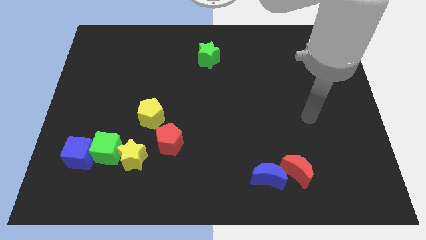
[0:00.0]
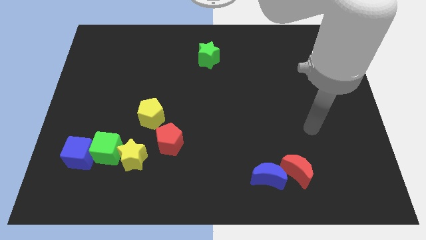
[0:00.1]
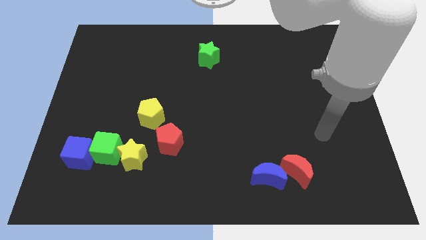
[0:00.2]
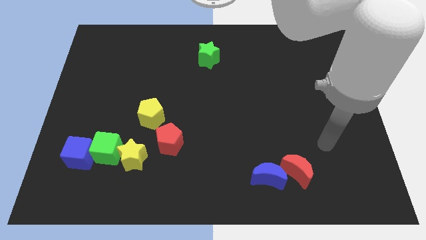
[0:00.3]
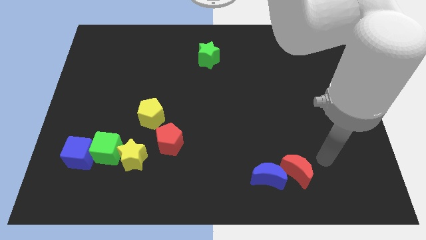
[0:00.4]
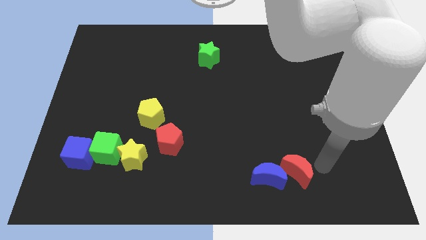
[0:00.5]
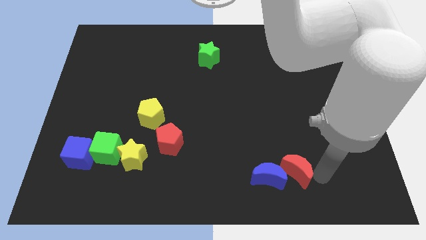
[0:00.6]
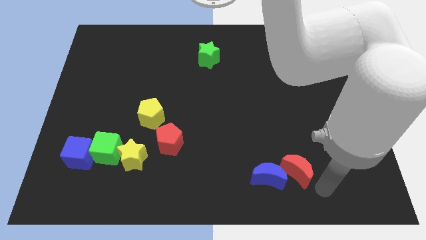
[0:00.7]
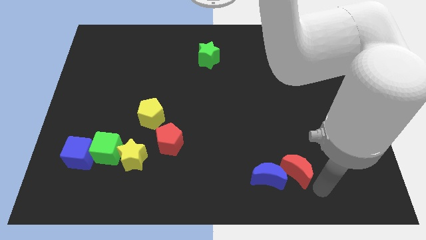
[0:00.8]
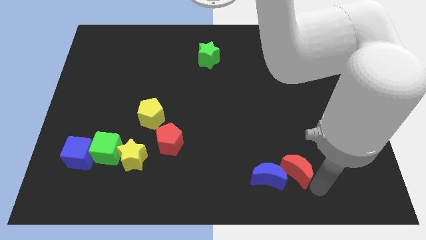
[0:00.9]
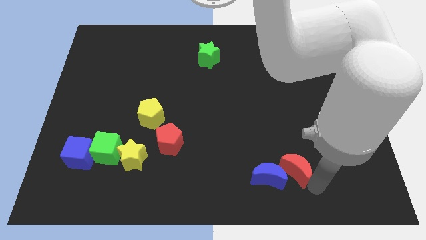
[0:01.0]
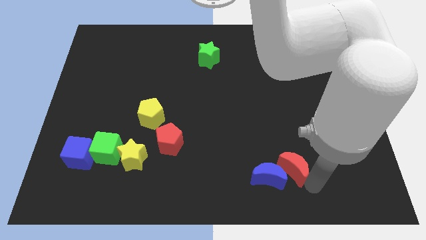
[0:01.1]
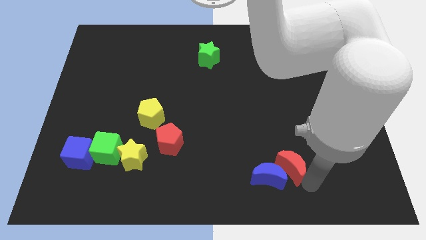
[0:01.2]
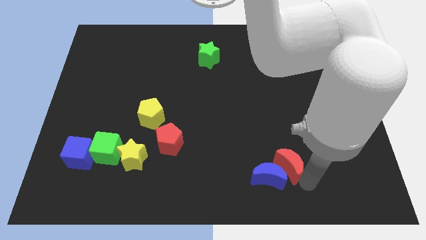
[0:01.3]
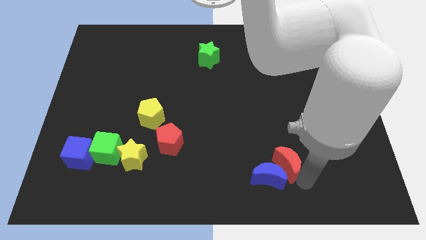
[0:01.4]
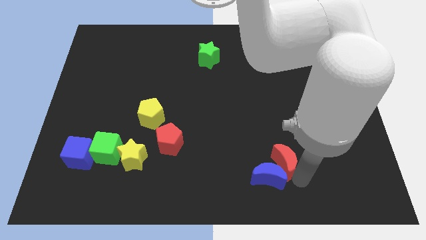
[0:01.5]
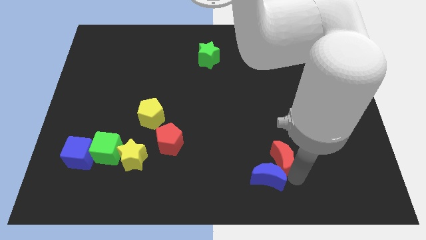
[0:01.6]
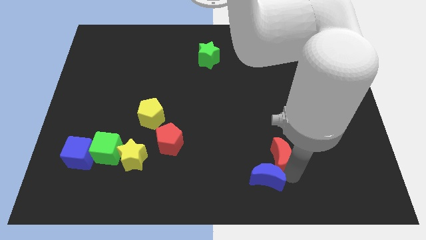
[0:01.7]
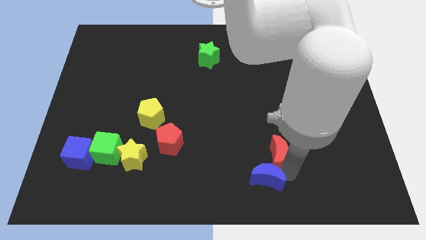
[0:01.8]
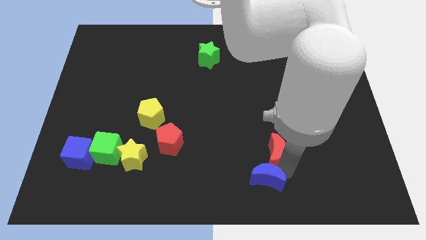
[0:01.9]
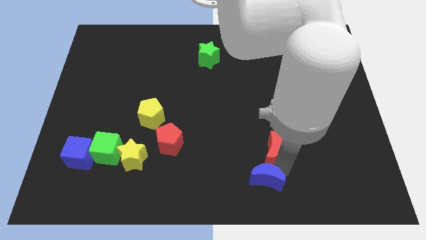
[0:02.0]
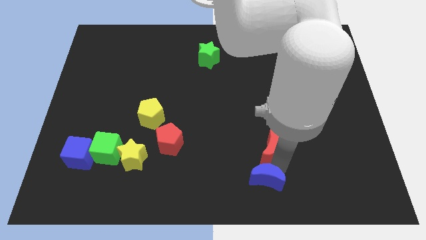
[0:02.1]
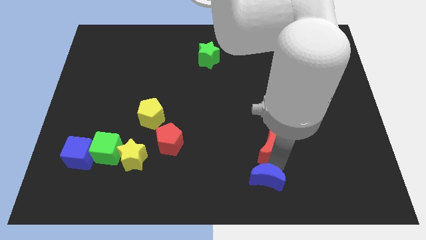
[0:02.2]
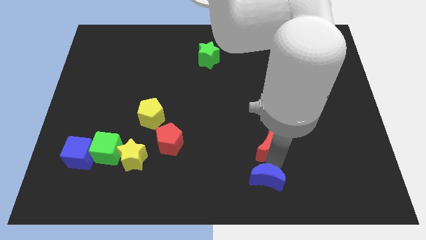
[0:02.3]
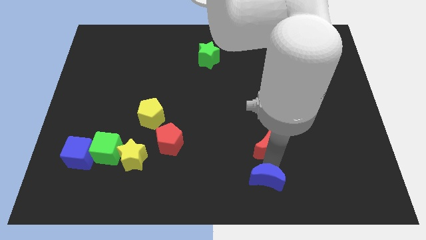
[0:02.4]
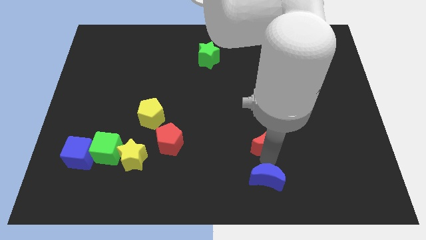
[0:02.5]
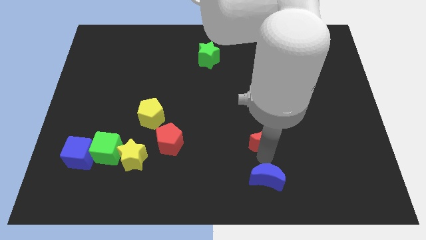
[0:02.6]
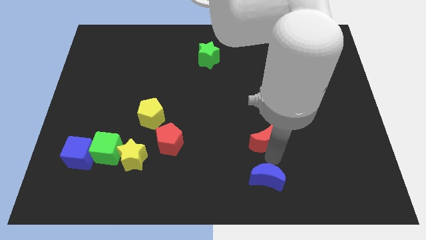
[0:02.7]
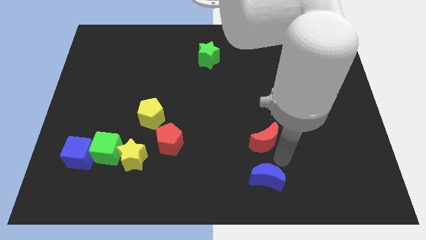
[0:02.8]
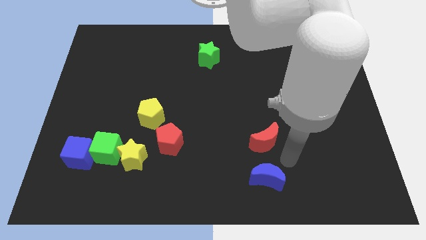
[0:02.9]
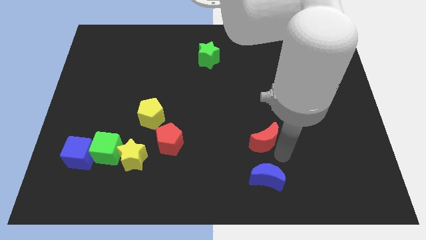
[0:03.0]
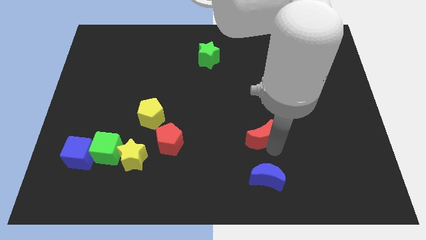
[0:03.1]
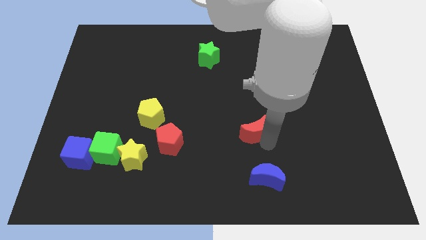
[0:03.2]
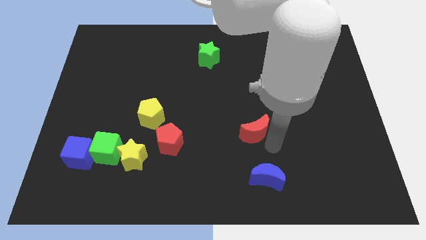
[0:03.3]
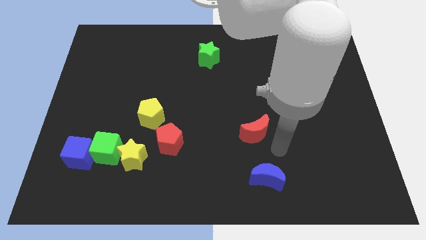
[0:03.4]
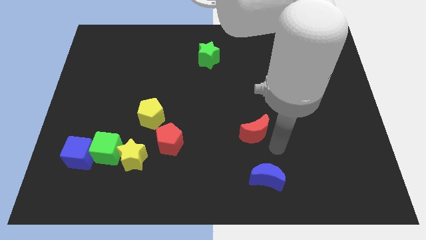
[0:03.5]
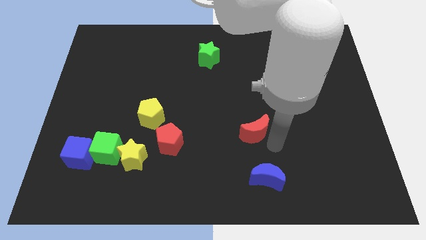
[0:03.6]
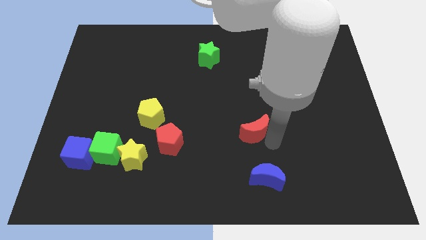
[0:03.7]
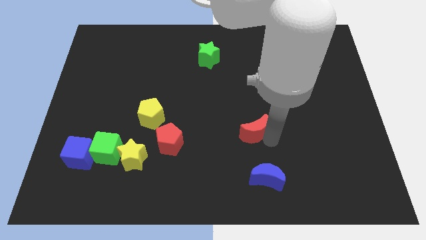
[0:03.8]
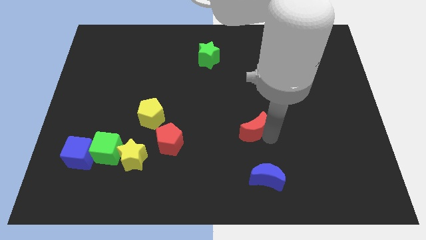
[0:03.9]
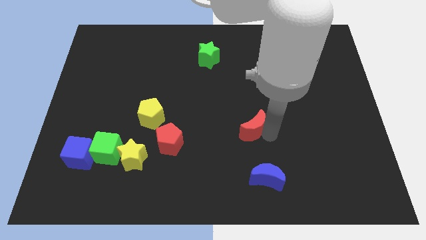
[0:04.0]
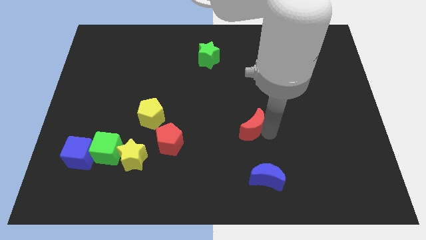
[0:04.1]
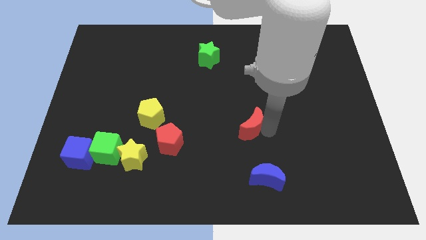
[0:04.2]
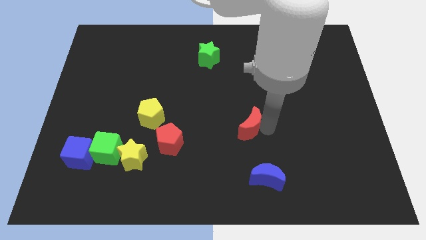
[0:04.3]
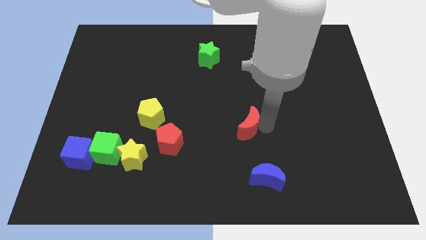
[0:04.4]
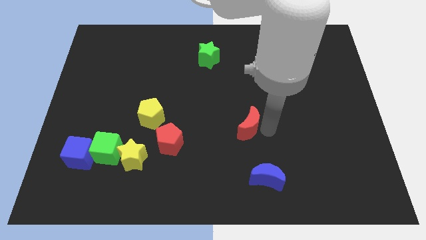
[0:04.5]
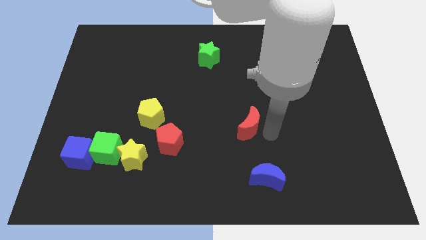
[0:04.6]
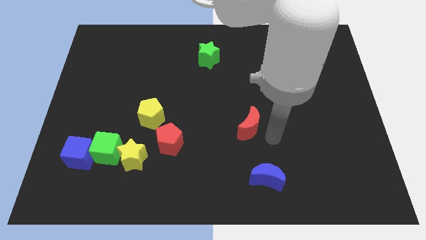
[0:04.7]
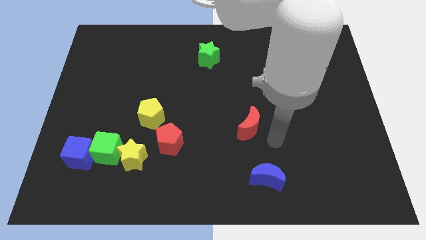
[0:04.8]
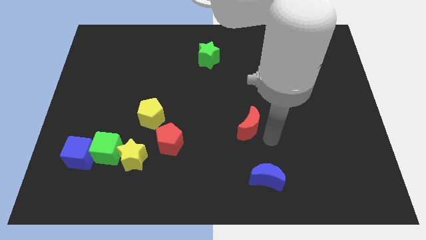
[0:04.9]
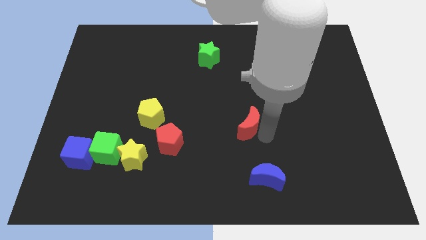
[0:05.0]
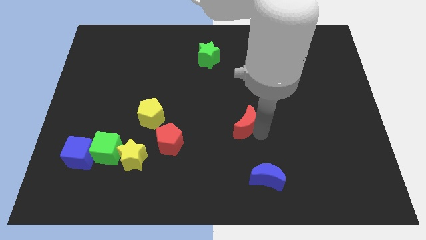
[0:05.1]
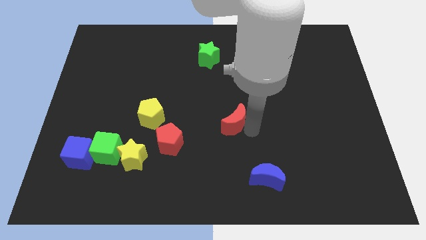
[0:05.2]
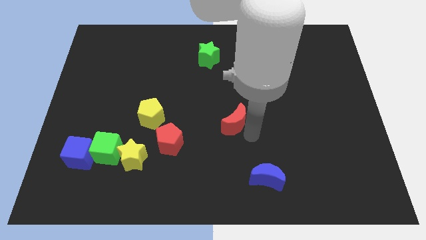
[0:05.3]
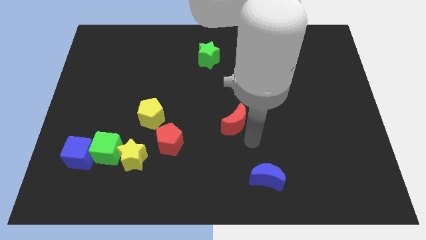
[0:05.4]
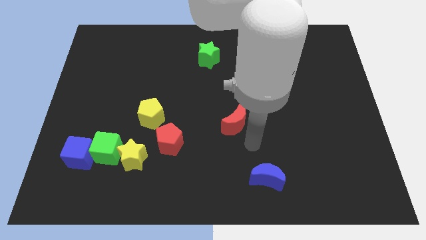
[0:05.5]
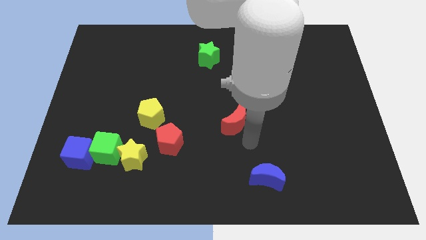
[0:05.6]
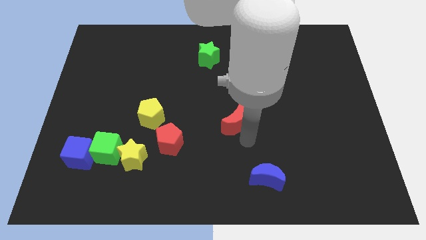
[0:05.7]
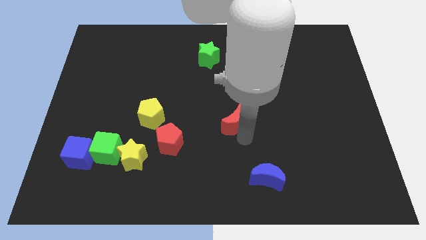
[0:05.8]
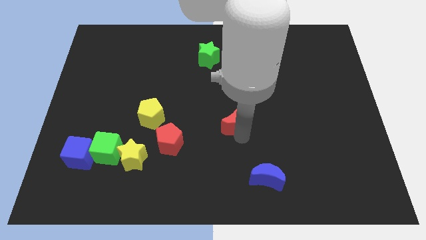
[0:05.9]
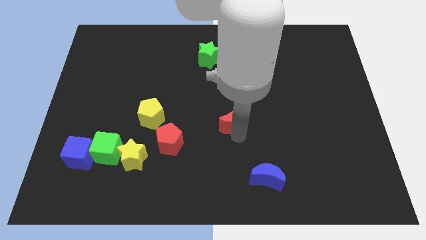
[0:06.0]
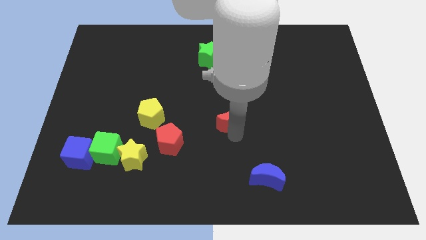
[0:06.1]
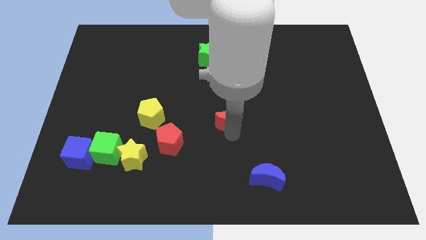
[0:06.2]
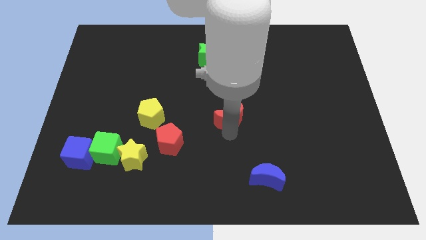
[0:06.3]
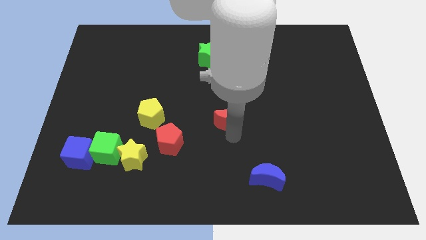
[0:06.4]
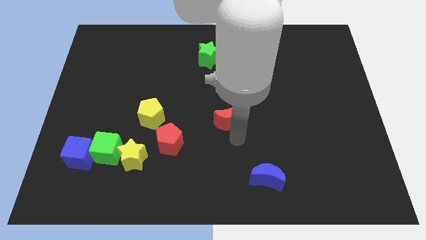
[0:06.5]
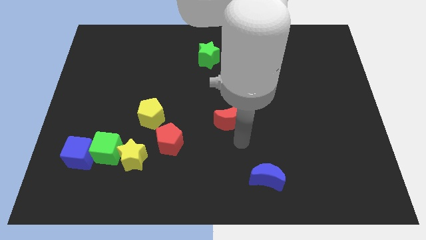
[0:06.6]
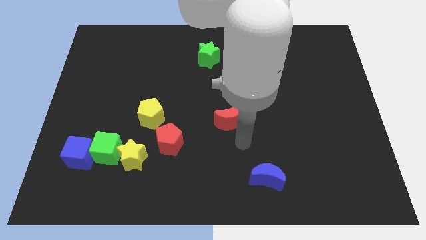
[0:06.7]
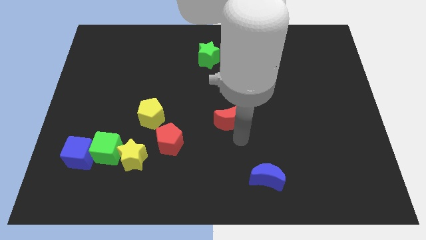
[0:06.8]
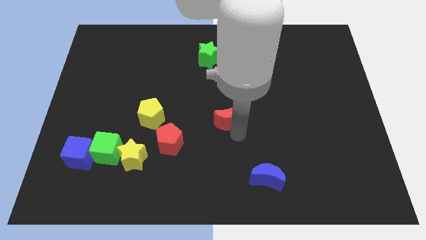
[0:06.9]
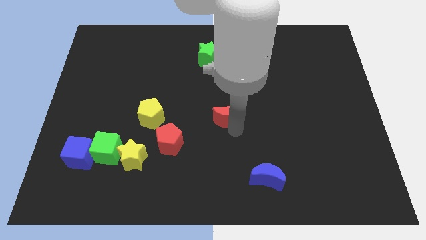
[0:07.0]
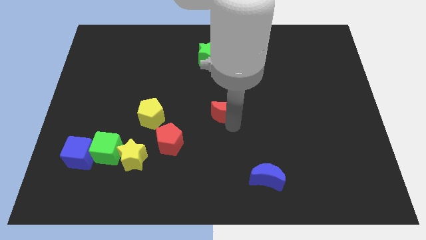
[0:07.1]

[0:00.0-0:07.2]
move the red moon upwards and to the left diagonally

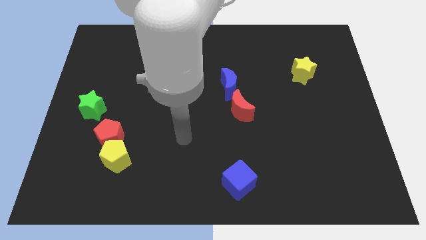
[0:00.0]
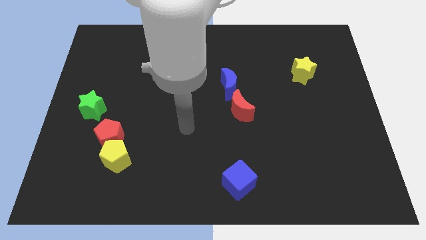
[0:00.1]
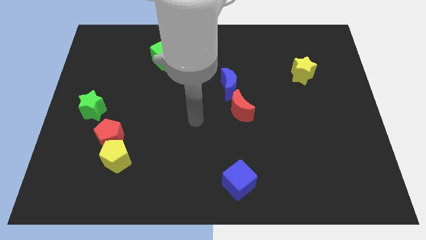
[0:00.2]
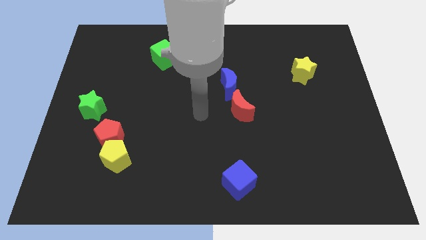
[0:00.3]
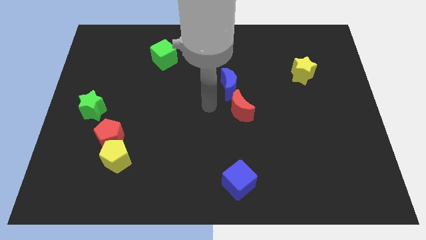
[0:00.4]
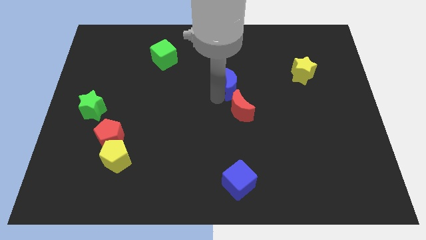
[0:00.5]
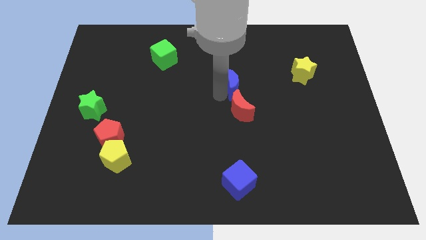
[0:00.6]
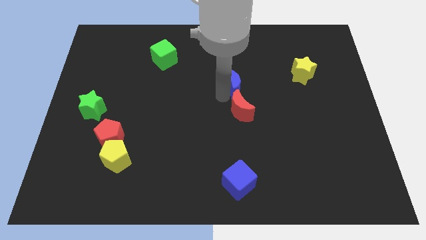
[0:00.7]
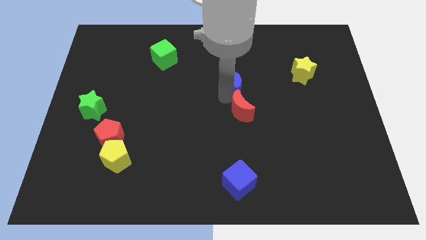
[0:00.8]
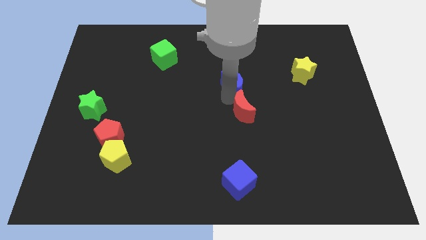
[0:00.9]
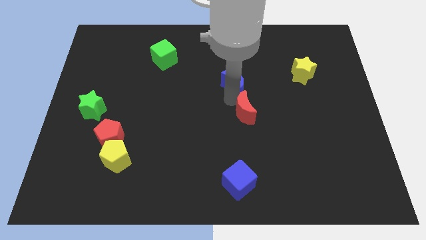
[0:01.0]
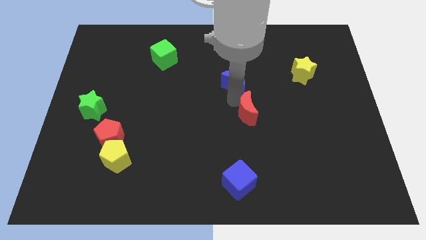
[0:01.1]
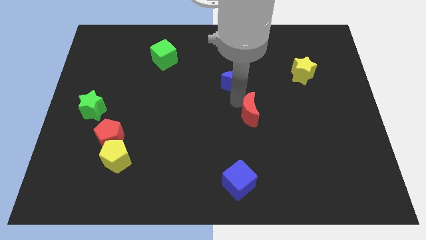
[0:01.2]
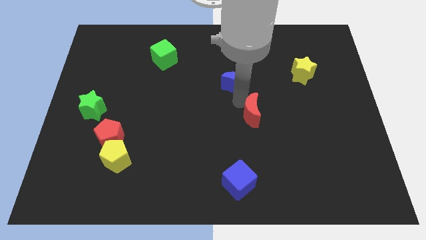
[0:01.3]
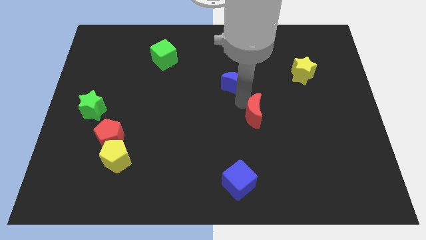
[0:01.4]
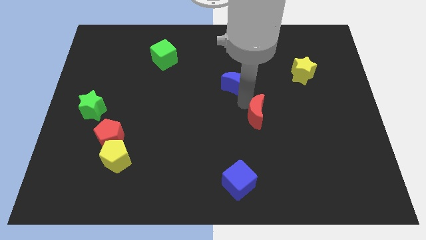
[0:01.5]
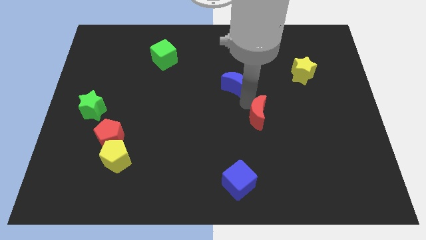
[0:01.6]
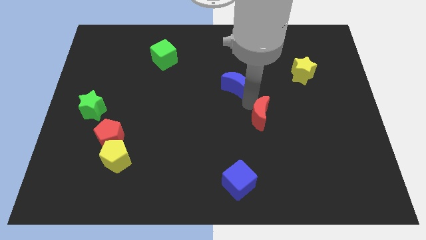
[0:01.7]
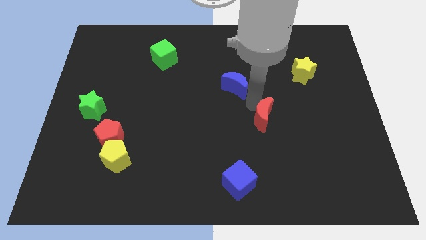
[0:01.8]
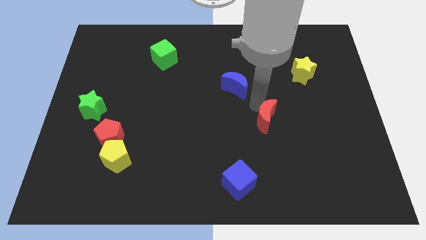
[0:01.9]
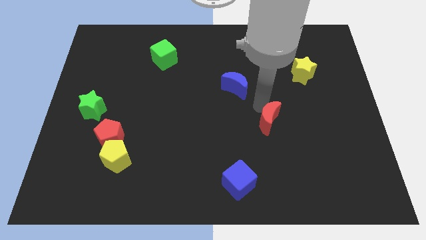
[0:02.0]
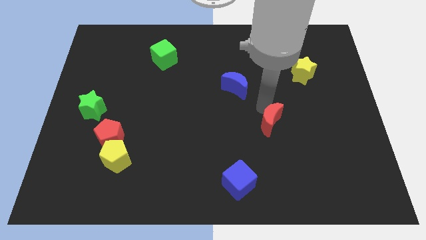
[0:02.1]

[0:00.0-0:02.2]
slide the red moon down and right a bit
